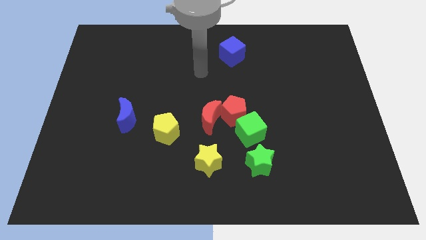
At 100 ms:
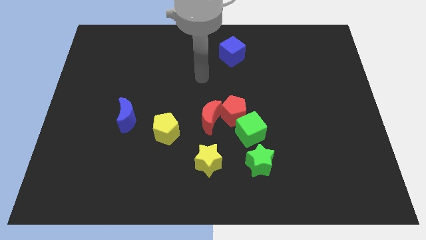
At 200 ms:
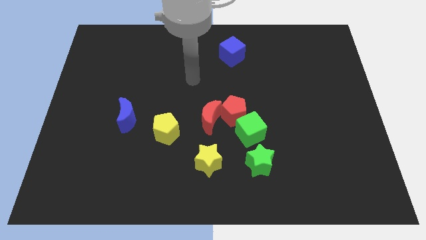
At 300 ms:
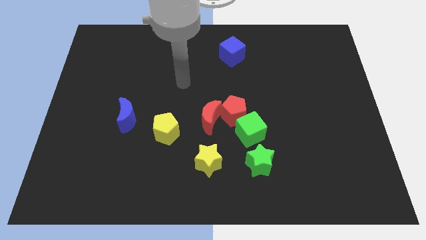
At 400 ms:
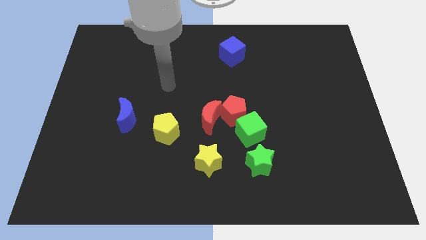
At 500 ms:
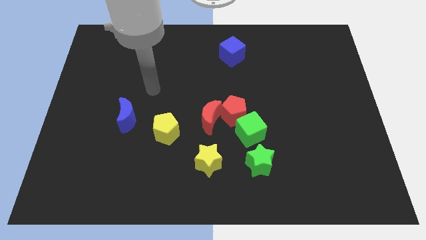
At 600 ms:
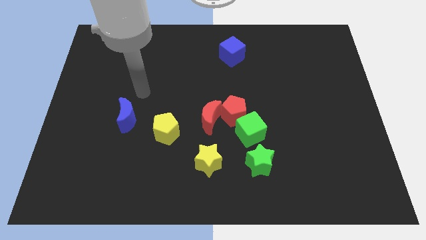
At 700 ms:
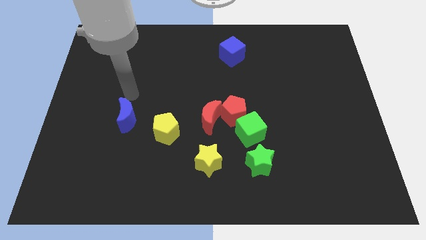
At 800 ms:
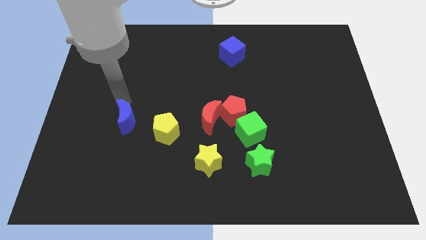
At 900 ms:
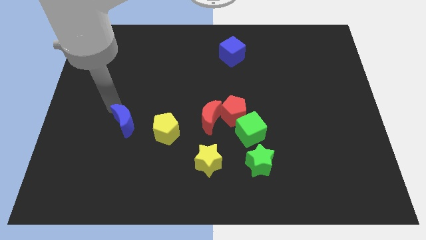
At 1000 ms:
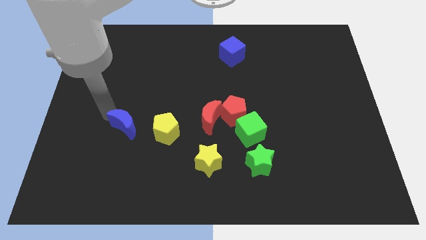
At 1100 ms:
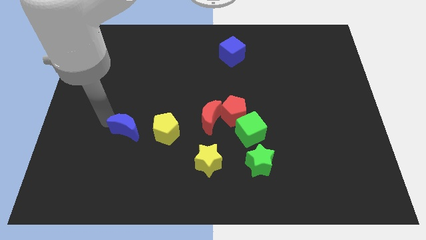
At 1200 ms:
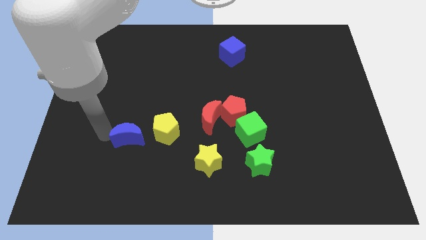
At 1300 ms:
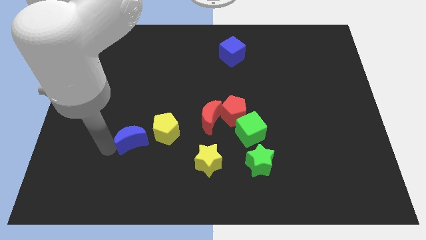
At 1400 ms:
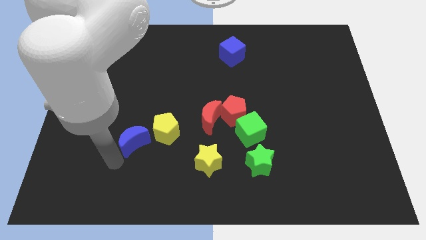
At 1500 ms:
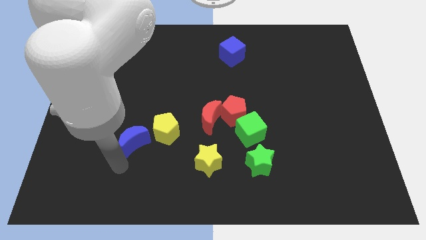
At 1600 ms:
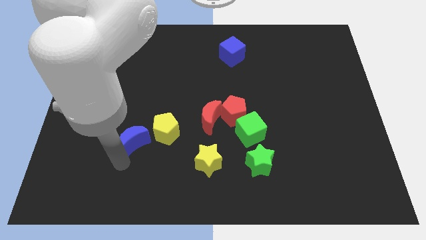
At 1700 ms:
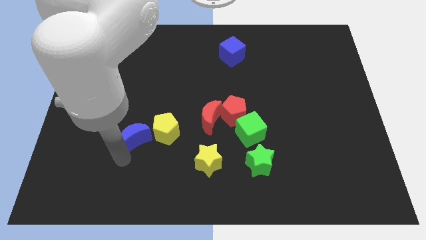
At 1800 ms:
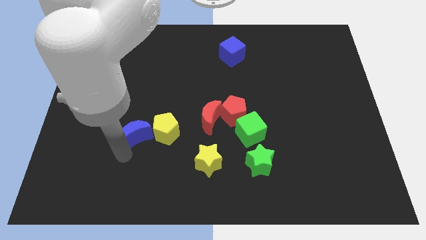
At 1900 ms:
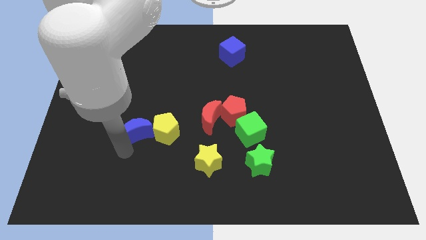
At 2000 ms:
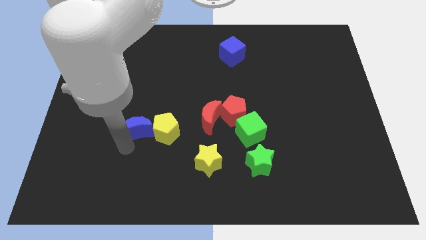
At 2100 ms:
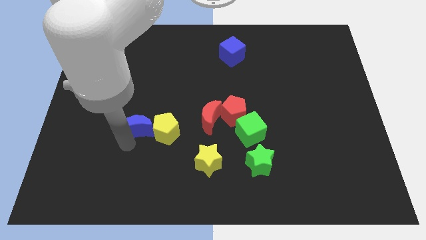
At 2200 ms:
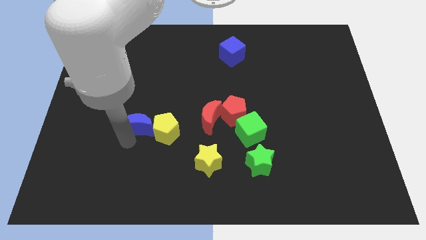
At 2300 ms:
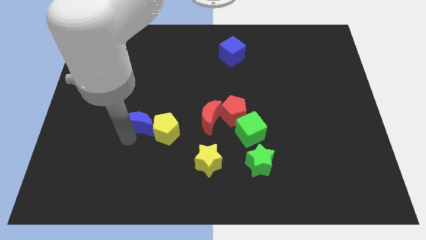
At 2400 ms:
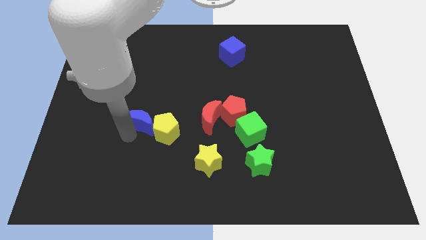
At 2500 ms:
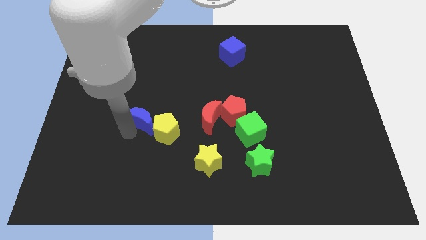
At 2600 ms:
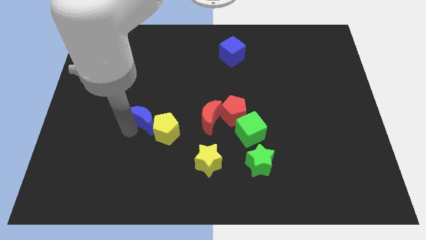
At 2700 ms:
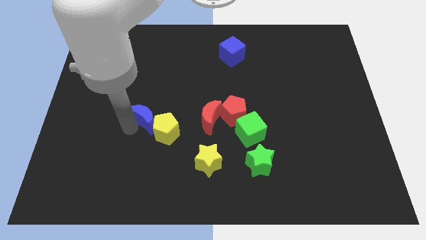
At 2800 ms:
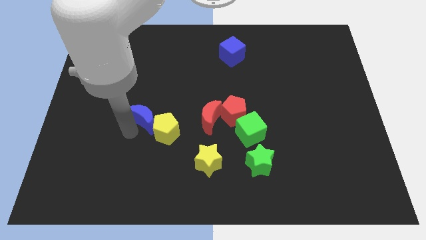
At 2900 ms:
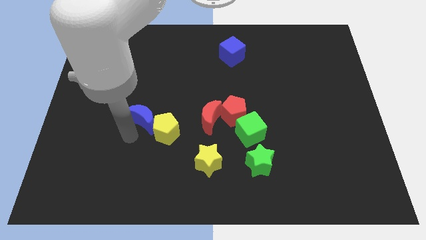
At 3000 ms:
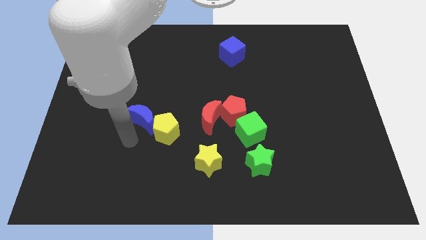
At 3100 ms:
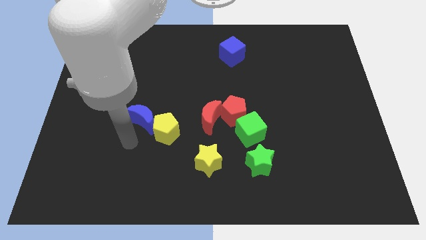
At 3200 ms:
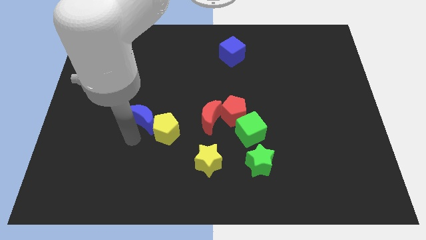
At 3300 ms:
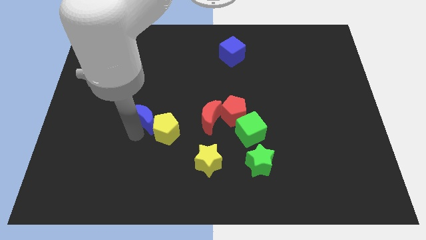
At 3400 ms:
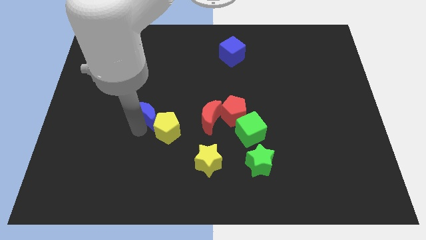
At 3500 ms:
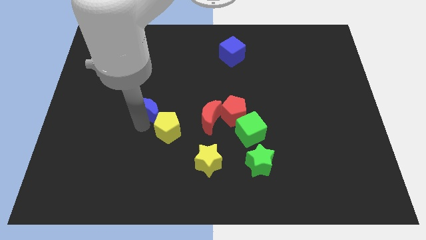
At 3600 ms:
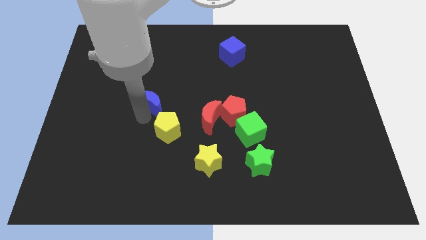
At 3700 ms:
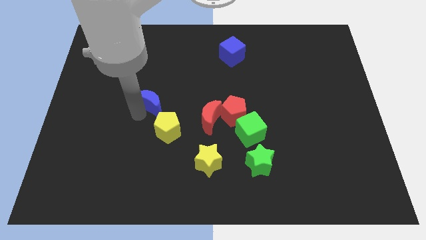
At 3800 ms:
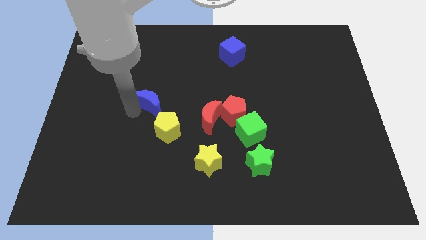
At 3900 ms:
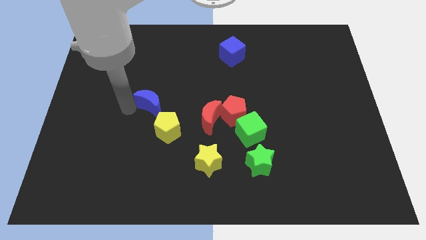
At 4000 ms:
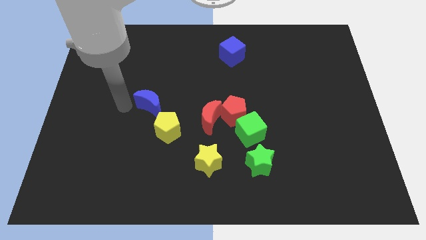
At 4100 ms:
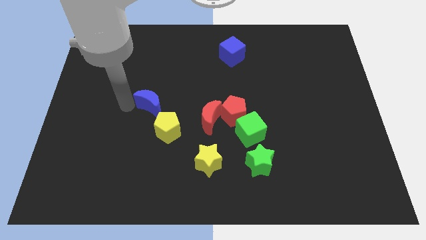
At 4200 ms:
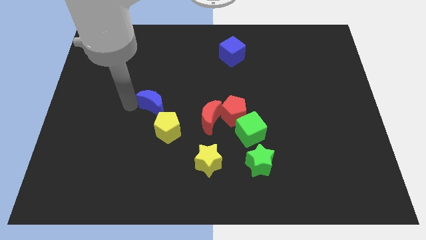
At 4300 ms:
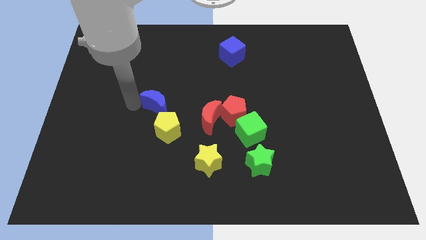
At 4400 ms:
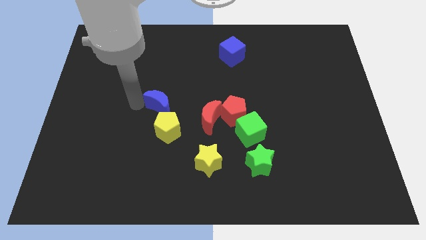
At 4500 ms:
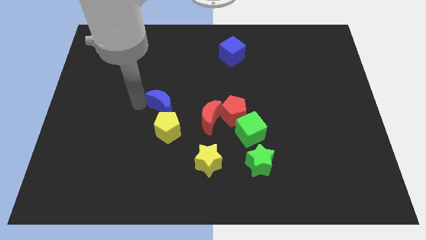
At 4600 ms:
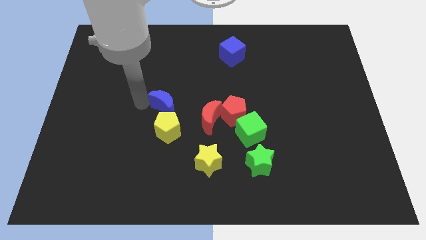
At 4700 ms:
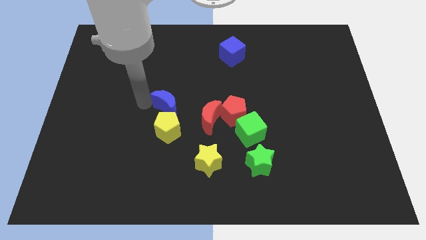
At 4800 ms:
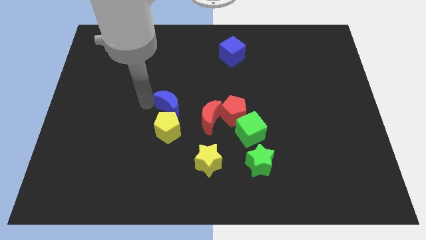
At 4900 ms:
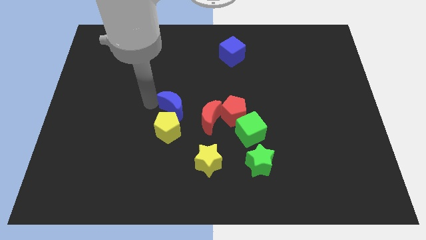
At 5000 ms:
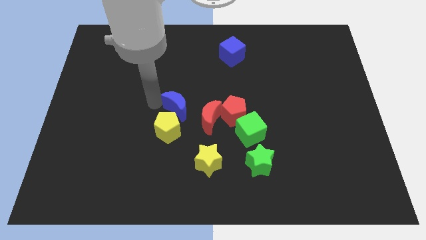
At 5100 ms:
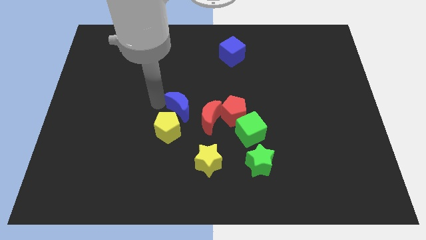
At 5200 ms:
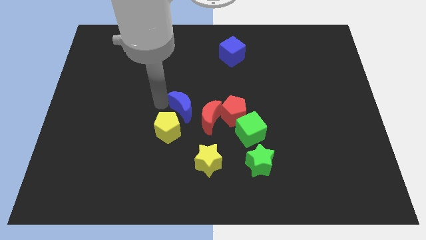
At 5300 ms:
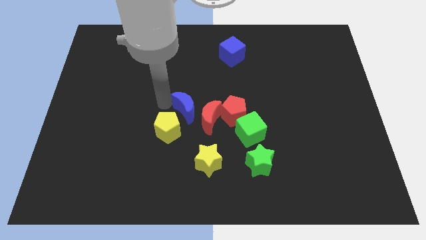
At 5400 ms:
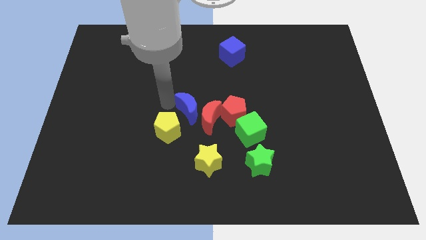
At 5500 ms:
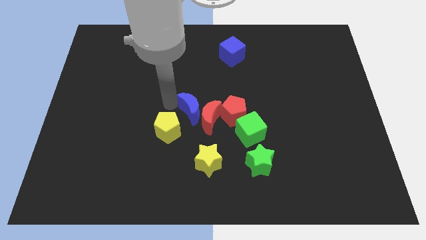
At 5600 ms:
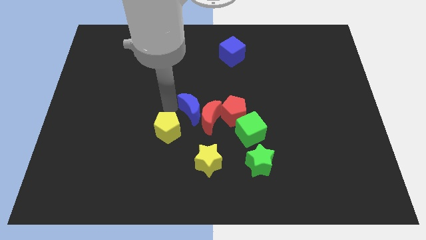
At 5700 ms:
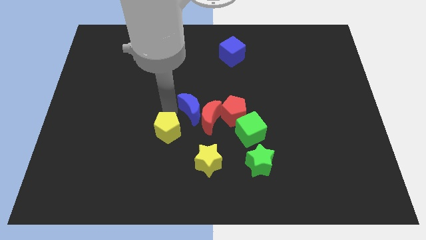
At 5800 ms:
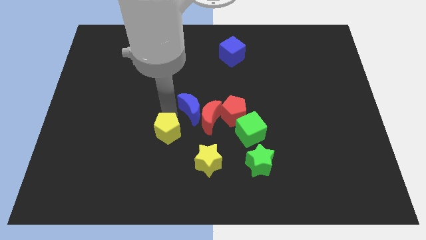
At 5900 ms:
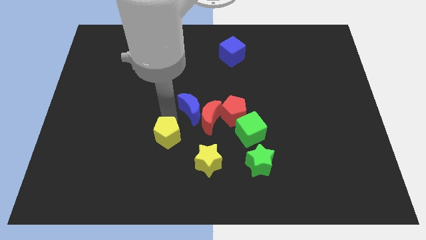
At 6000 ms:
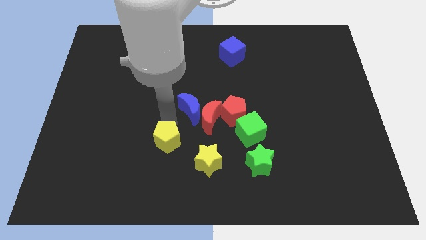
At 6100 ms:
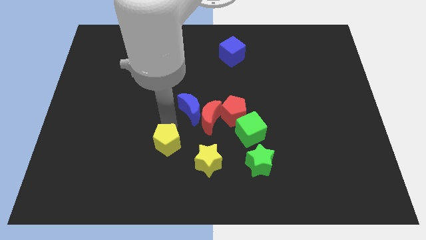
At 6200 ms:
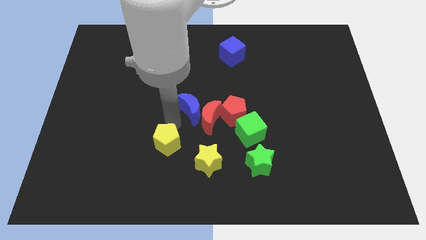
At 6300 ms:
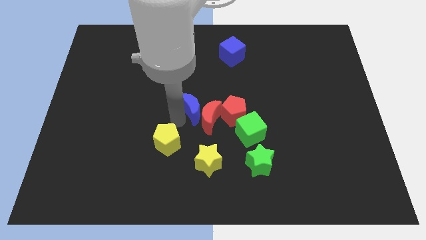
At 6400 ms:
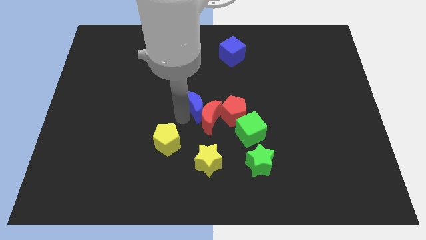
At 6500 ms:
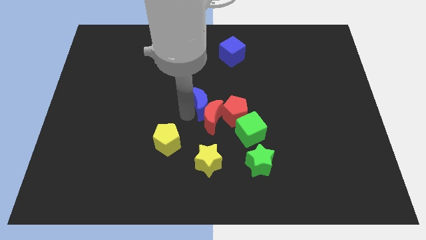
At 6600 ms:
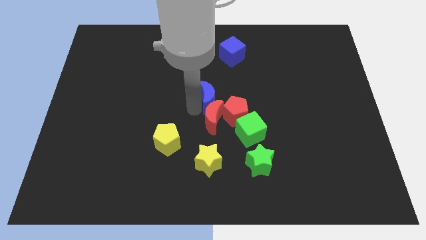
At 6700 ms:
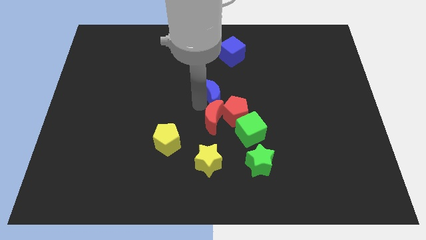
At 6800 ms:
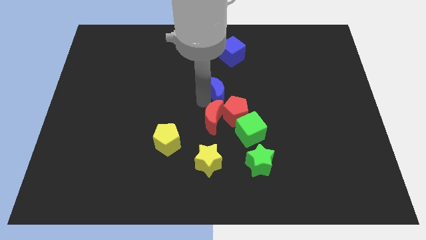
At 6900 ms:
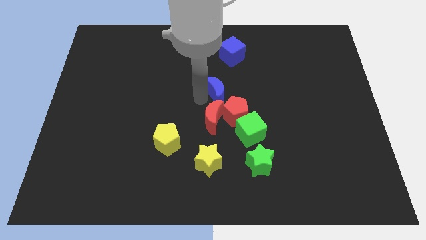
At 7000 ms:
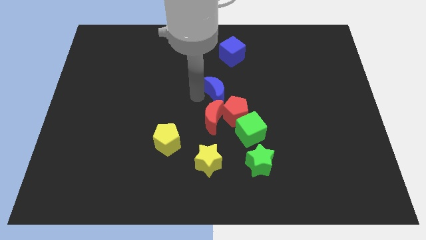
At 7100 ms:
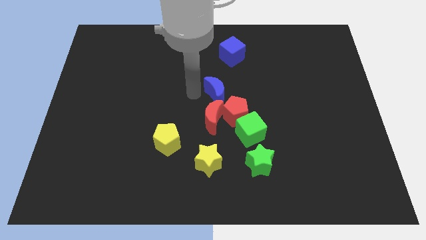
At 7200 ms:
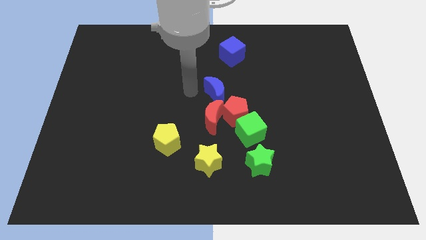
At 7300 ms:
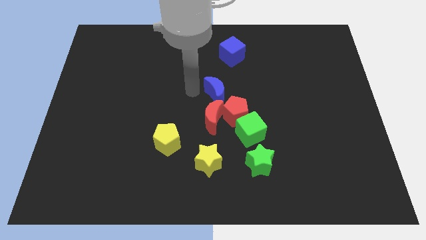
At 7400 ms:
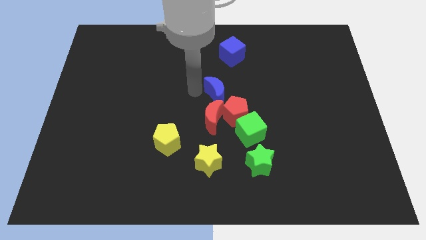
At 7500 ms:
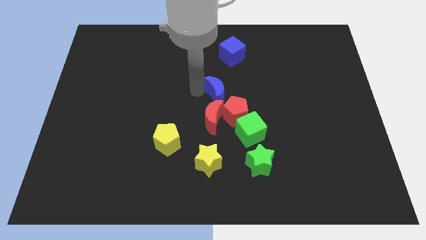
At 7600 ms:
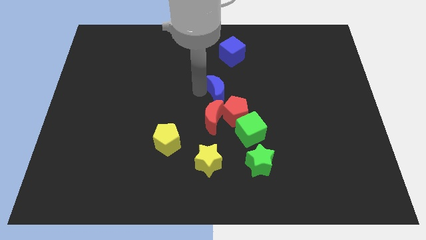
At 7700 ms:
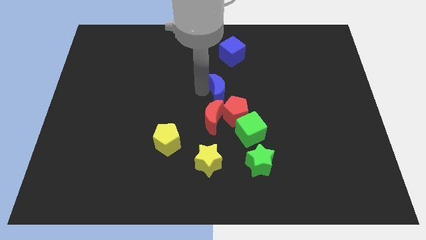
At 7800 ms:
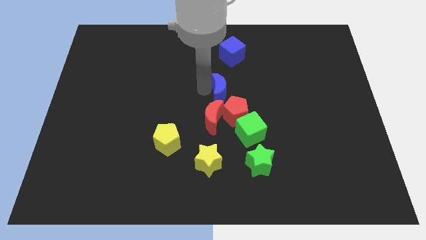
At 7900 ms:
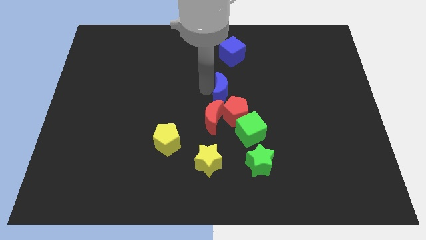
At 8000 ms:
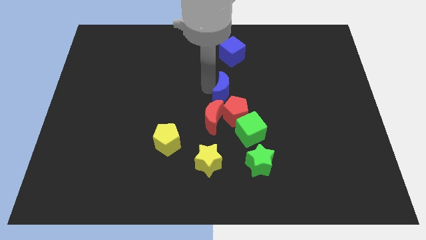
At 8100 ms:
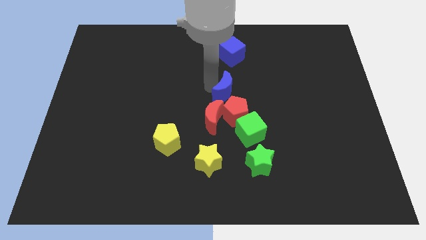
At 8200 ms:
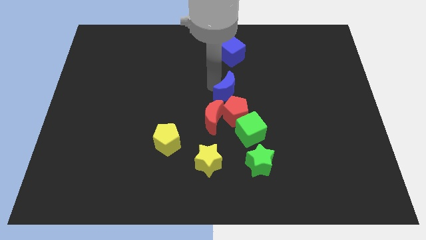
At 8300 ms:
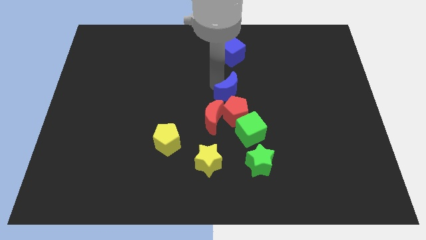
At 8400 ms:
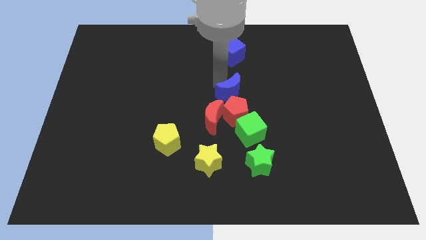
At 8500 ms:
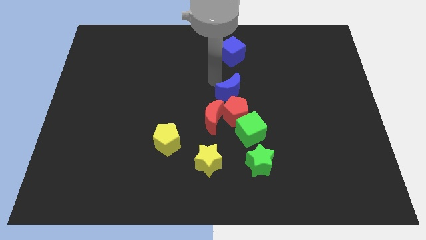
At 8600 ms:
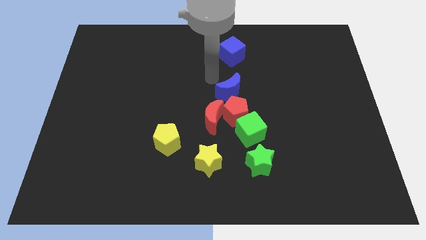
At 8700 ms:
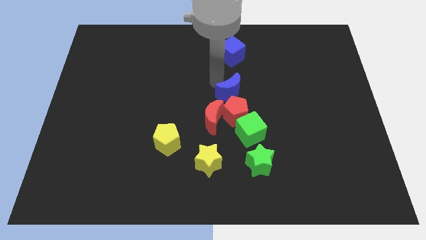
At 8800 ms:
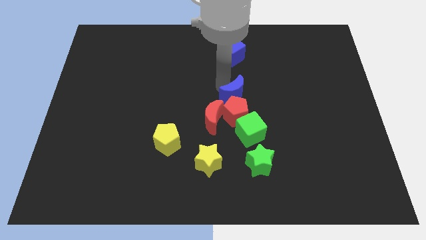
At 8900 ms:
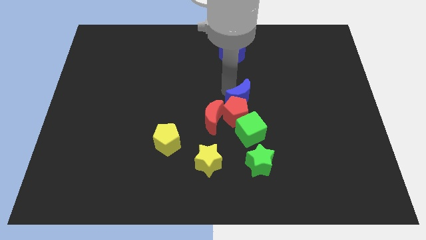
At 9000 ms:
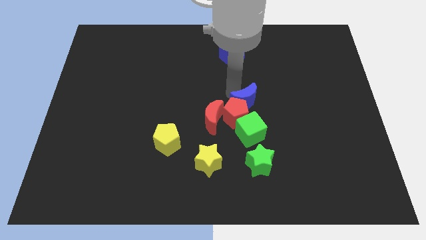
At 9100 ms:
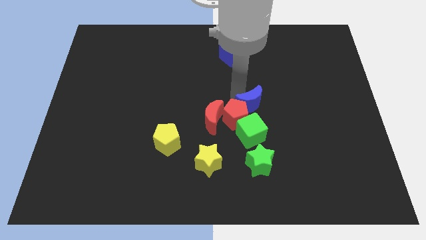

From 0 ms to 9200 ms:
slide the blue moon above the green star
